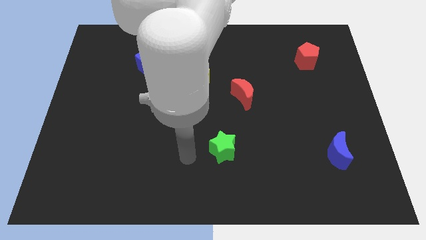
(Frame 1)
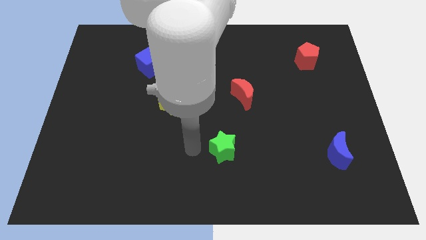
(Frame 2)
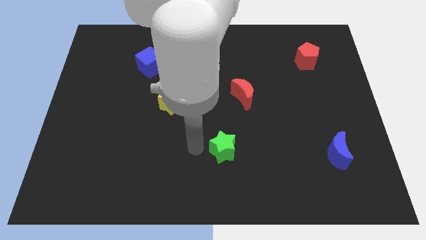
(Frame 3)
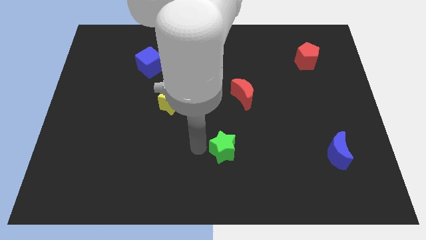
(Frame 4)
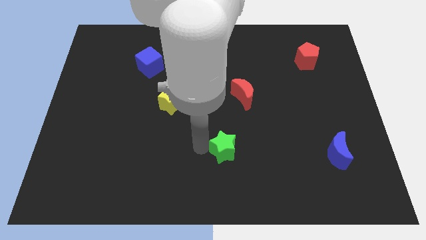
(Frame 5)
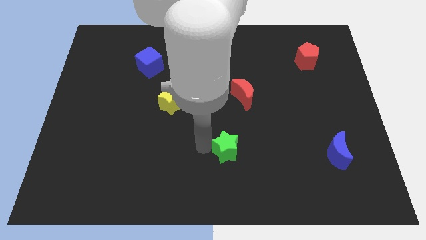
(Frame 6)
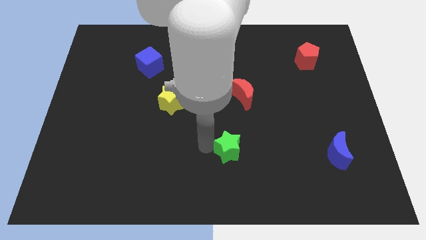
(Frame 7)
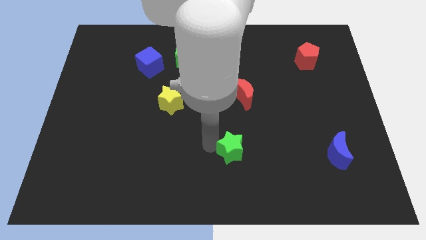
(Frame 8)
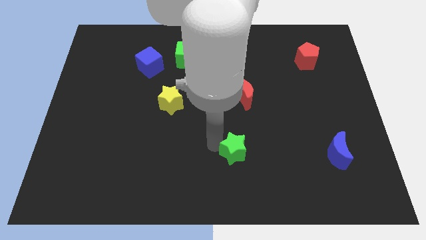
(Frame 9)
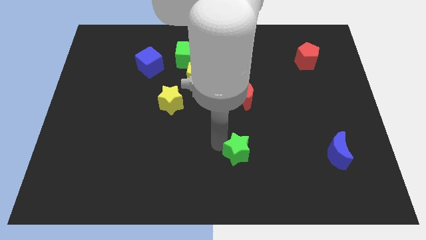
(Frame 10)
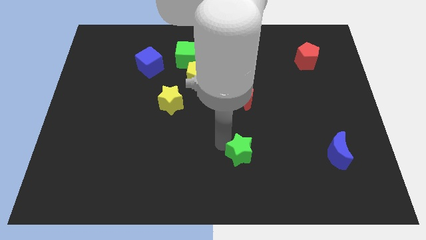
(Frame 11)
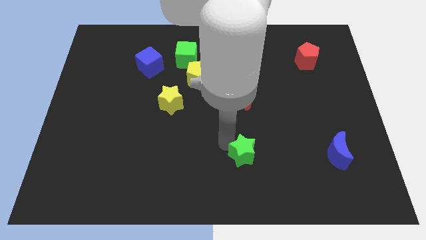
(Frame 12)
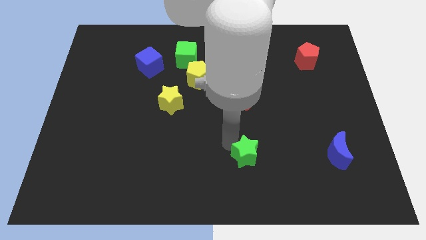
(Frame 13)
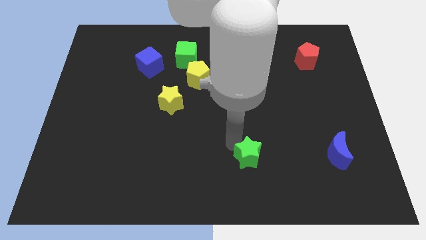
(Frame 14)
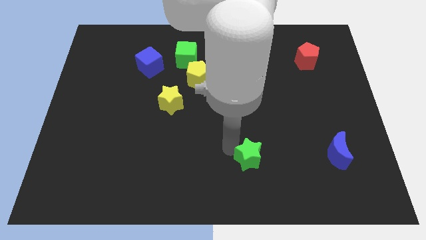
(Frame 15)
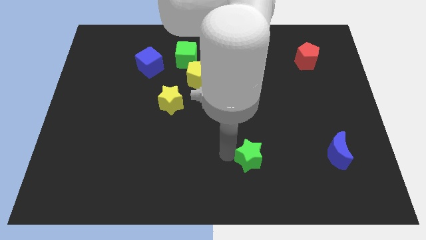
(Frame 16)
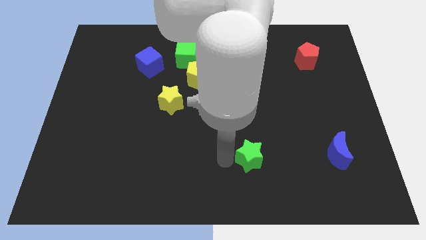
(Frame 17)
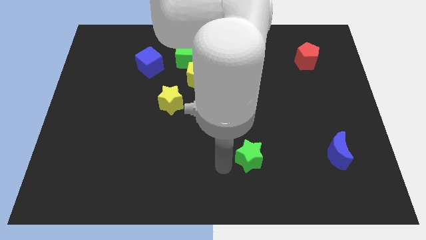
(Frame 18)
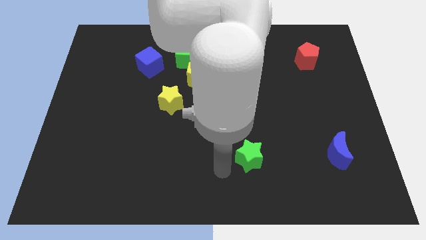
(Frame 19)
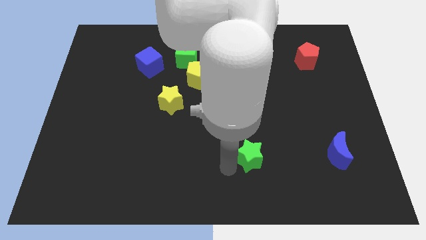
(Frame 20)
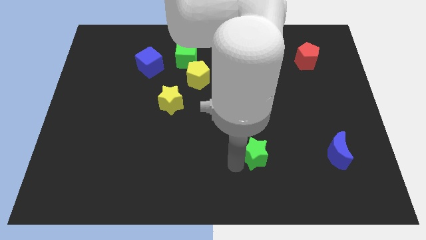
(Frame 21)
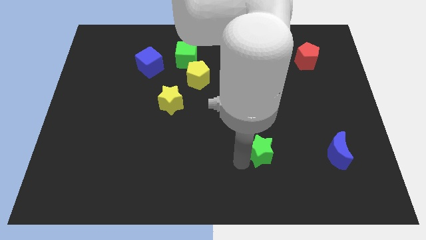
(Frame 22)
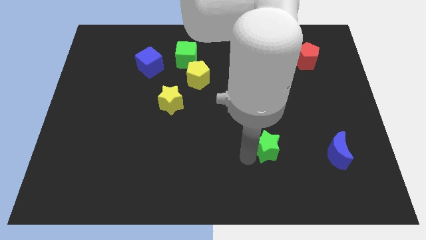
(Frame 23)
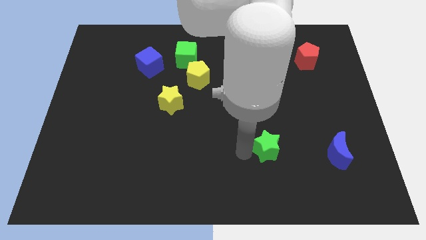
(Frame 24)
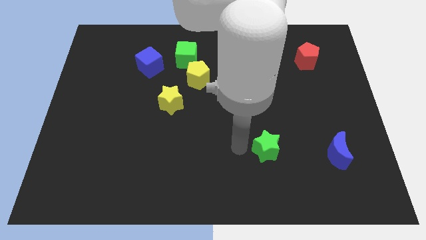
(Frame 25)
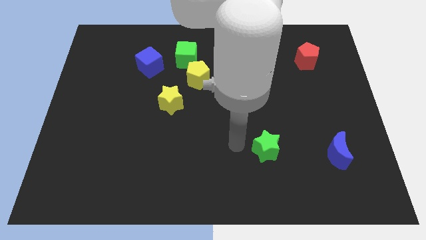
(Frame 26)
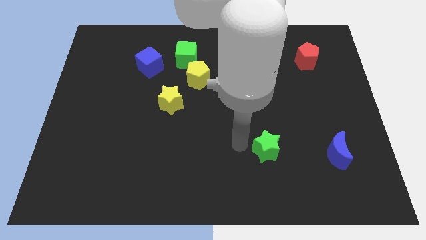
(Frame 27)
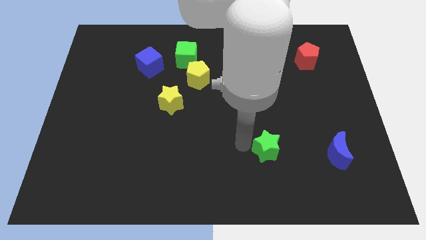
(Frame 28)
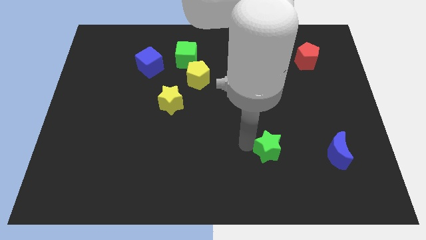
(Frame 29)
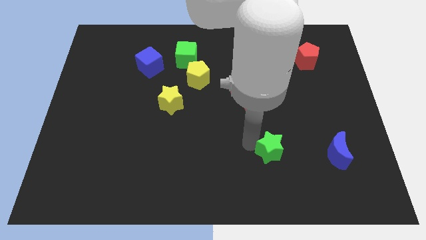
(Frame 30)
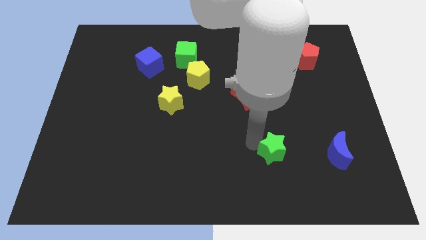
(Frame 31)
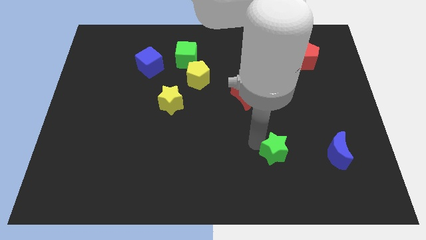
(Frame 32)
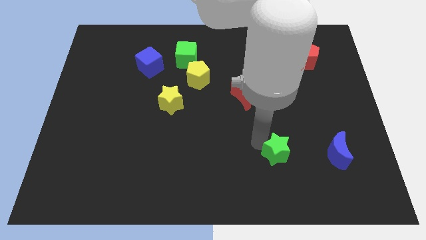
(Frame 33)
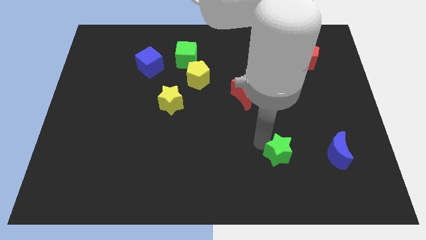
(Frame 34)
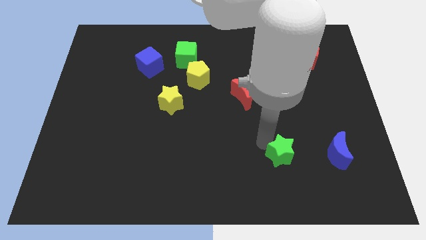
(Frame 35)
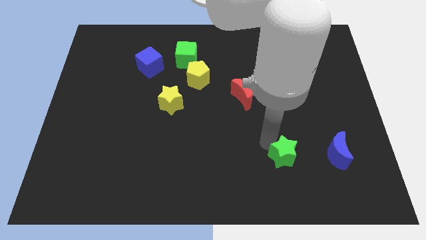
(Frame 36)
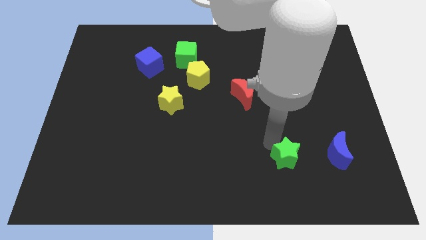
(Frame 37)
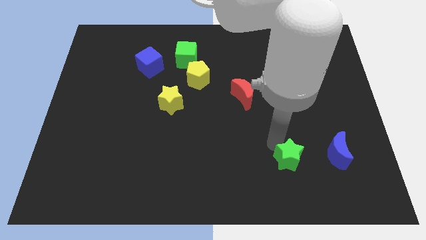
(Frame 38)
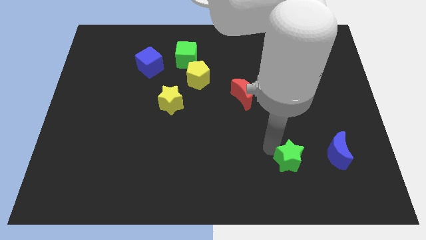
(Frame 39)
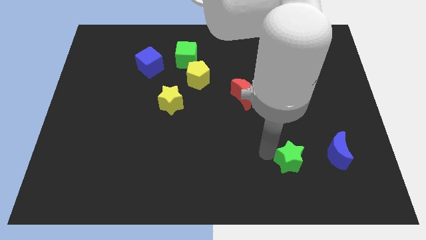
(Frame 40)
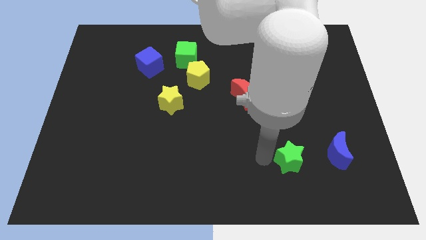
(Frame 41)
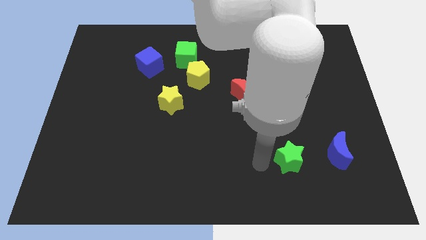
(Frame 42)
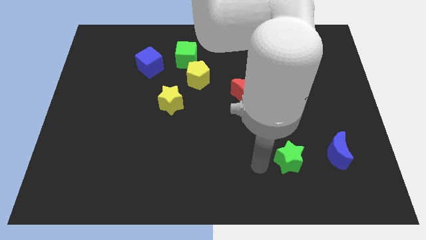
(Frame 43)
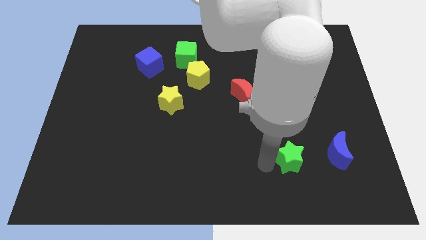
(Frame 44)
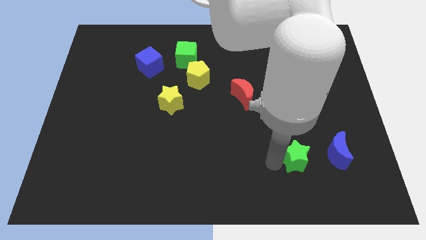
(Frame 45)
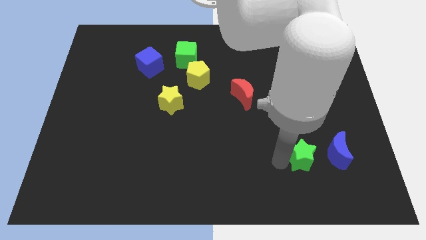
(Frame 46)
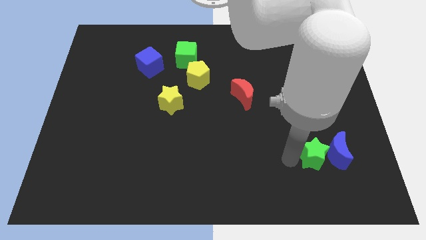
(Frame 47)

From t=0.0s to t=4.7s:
push the green star close to the blue moon

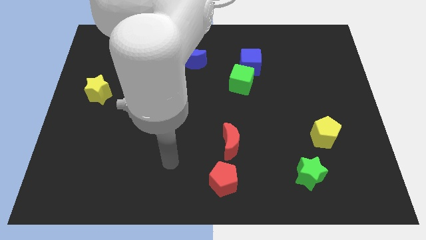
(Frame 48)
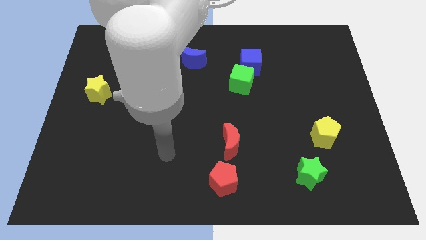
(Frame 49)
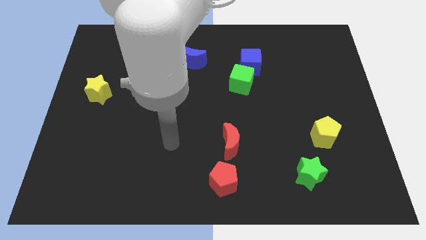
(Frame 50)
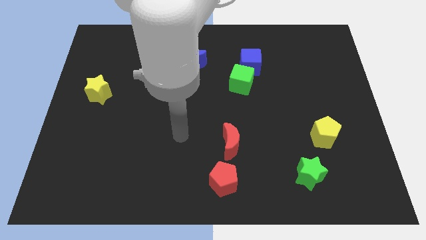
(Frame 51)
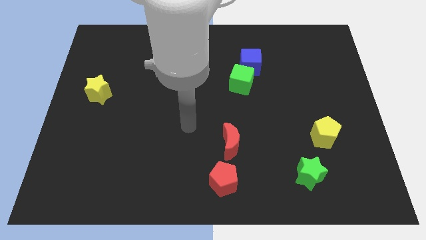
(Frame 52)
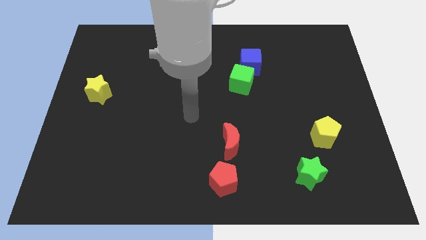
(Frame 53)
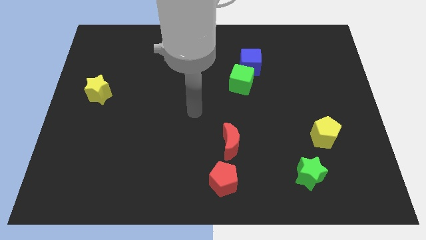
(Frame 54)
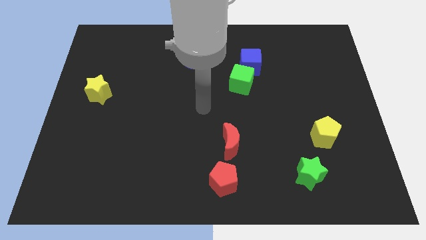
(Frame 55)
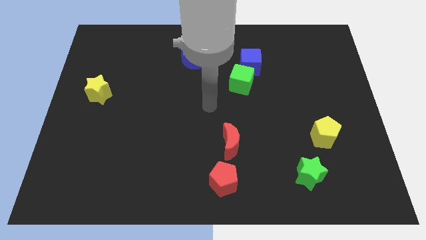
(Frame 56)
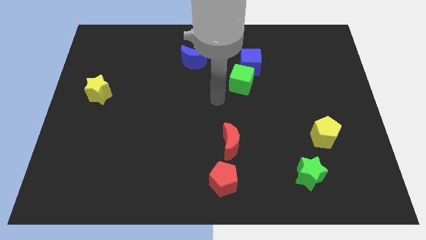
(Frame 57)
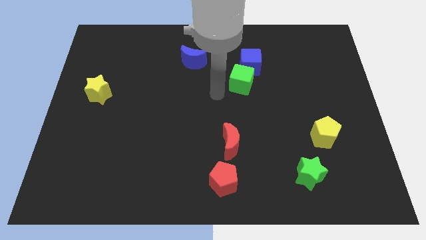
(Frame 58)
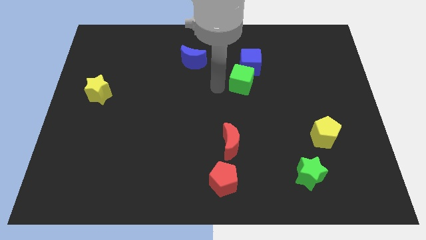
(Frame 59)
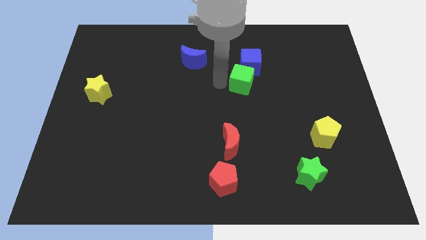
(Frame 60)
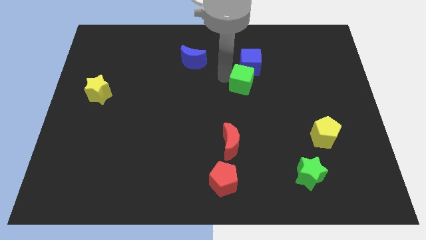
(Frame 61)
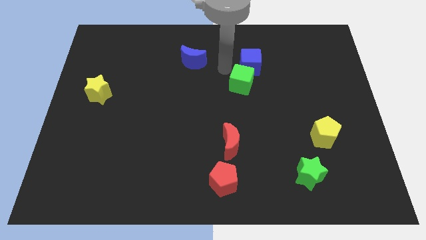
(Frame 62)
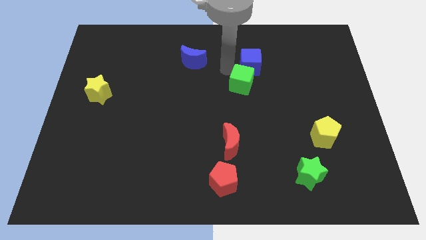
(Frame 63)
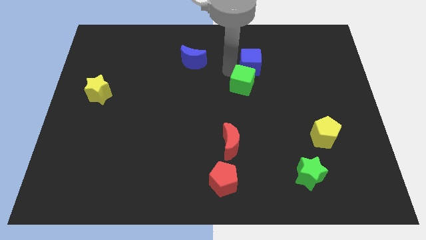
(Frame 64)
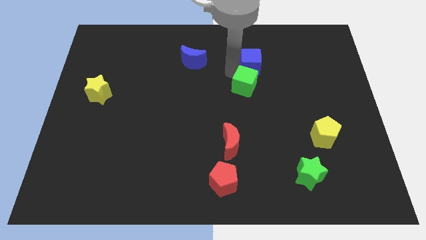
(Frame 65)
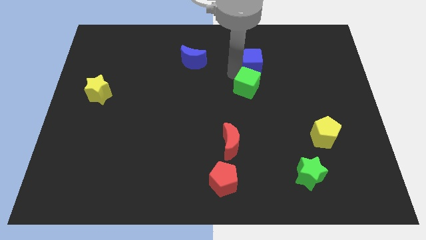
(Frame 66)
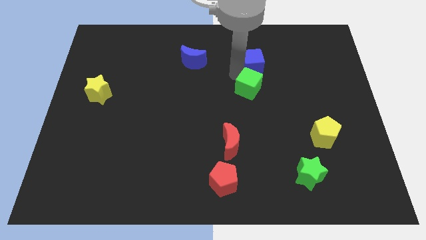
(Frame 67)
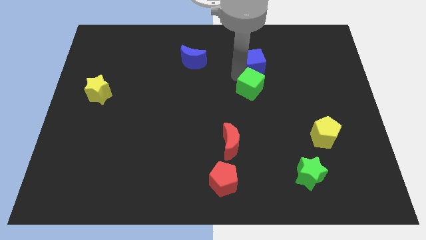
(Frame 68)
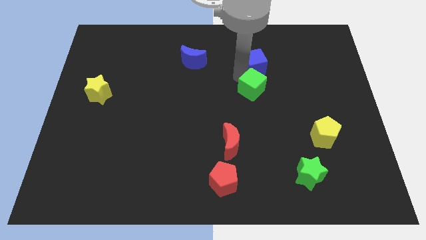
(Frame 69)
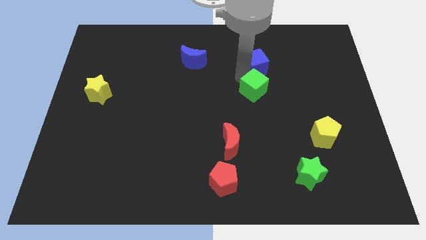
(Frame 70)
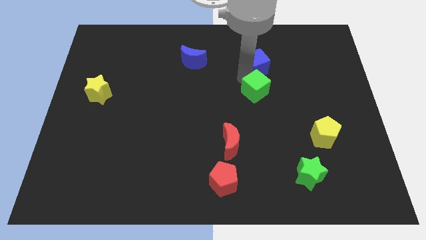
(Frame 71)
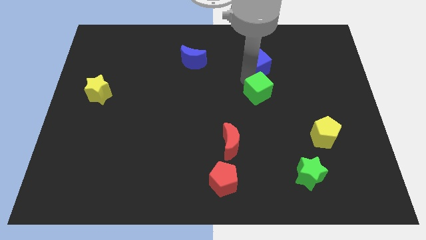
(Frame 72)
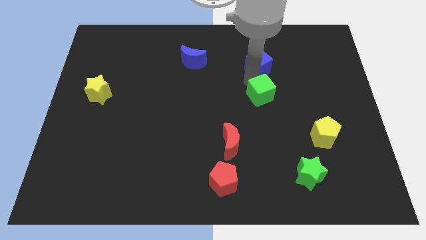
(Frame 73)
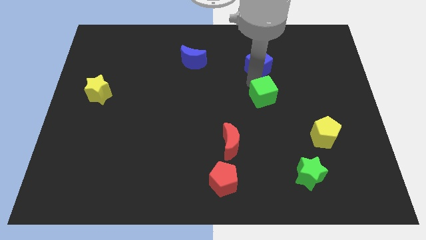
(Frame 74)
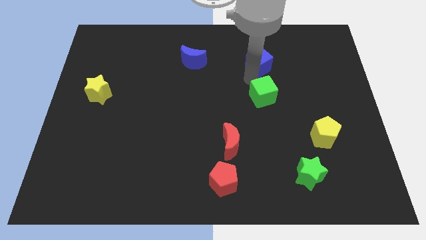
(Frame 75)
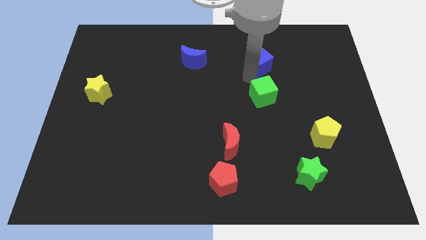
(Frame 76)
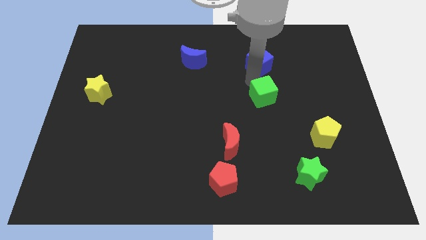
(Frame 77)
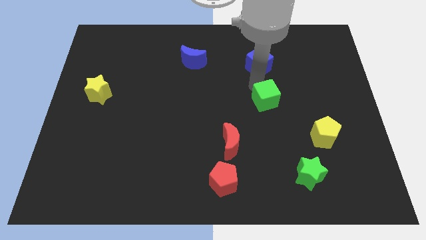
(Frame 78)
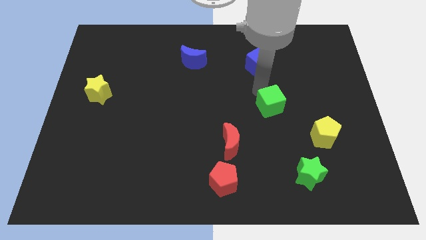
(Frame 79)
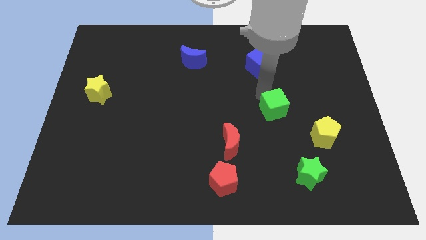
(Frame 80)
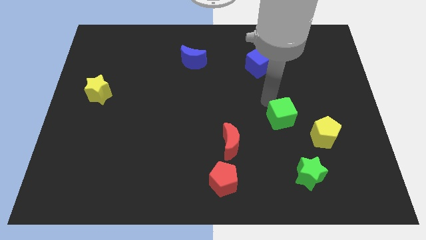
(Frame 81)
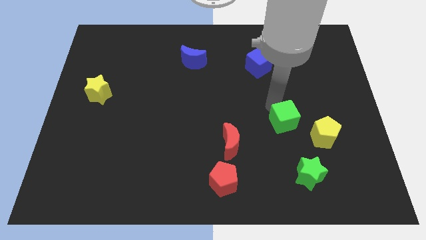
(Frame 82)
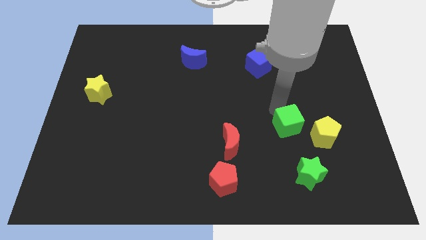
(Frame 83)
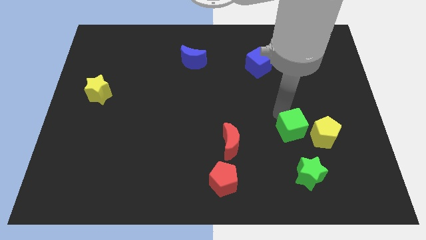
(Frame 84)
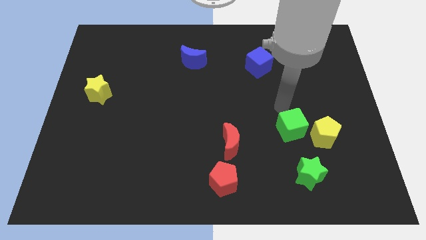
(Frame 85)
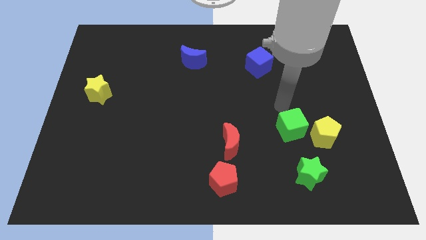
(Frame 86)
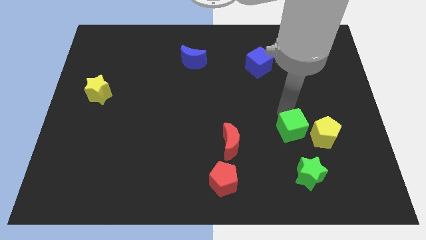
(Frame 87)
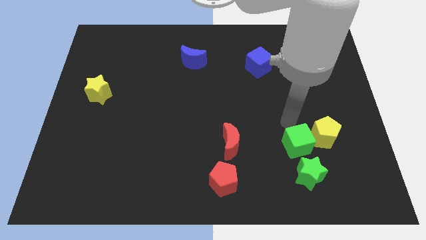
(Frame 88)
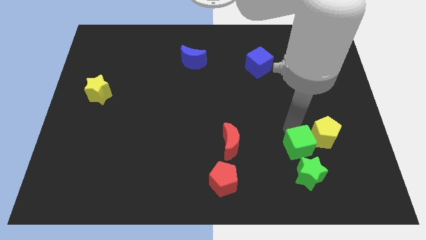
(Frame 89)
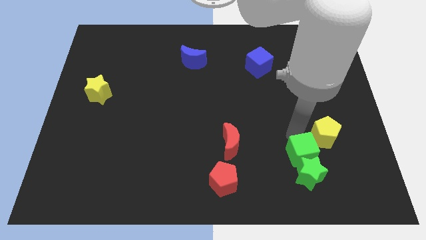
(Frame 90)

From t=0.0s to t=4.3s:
move the green cube towards the green star
